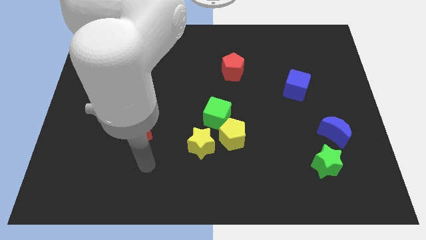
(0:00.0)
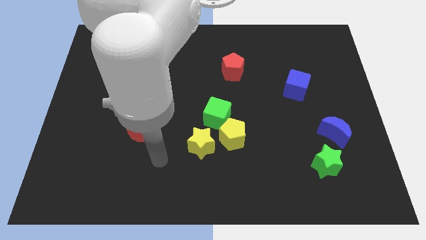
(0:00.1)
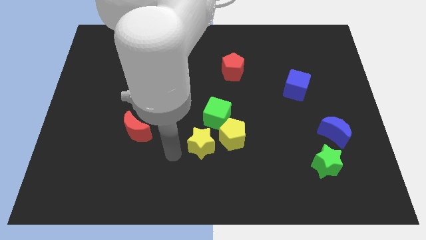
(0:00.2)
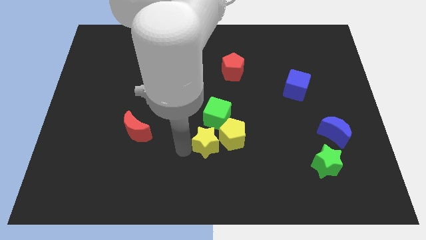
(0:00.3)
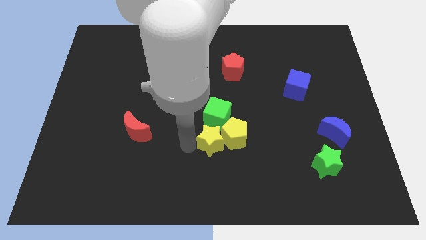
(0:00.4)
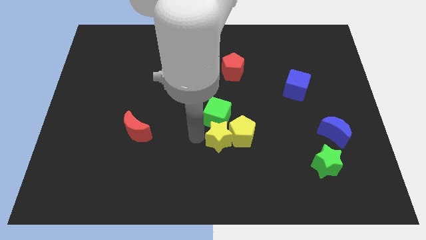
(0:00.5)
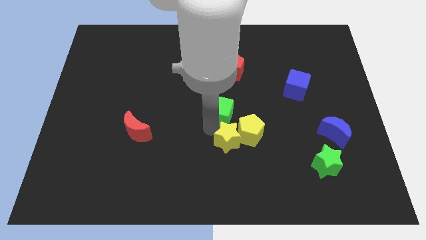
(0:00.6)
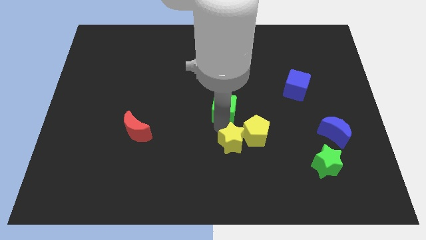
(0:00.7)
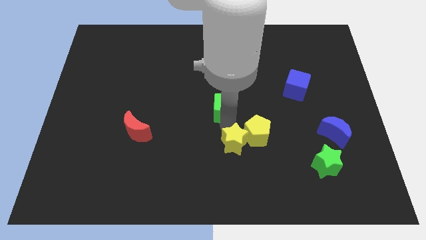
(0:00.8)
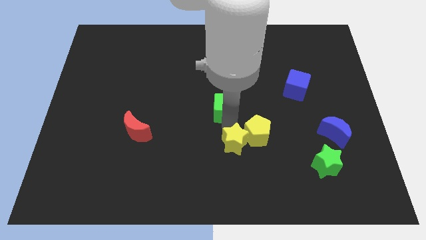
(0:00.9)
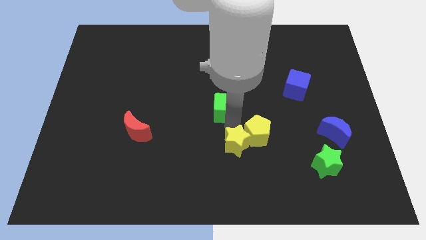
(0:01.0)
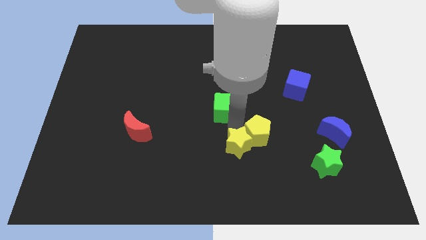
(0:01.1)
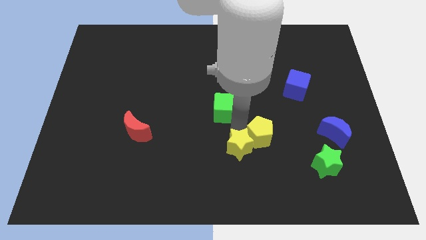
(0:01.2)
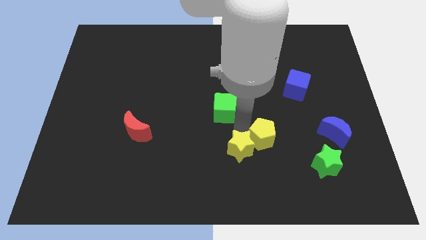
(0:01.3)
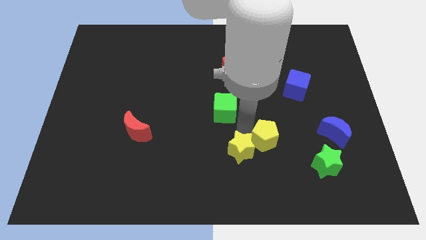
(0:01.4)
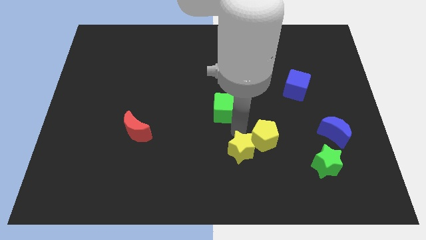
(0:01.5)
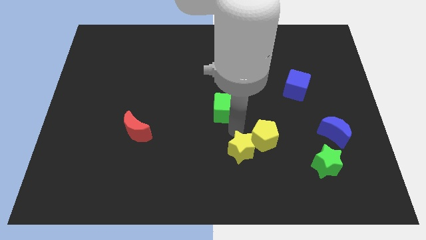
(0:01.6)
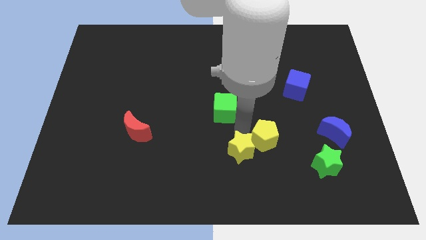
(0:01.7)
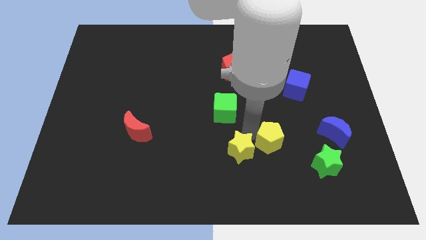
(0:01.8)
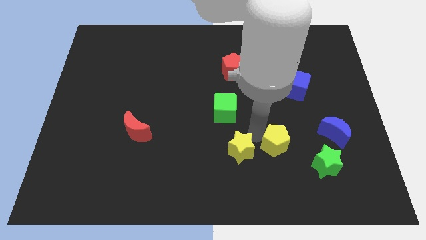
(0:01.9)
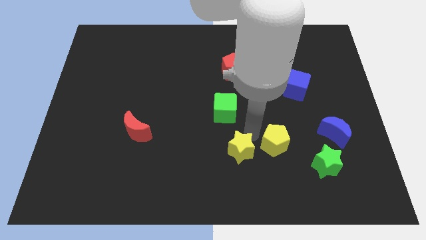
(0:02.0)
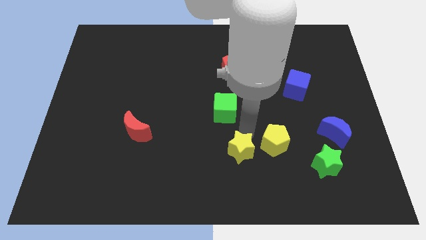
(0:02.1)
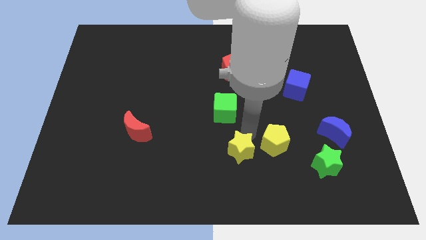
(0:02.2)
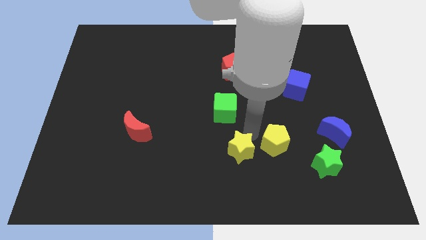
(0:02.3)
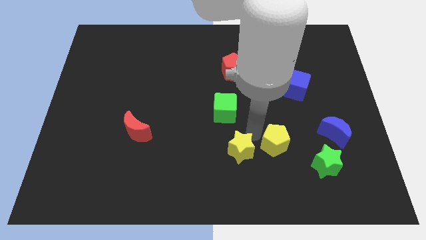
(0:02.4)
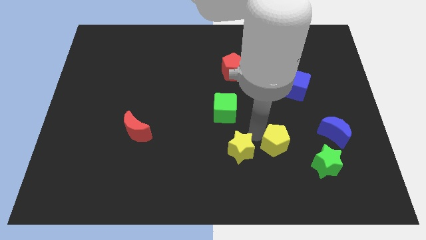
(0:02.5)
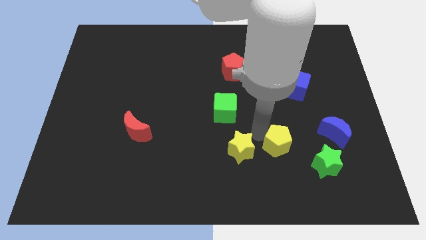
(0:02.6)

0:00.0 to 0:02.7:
pull the yellow pentagon apart from the green cube and yellow star

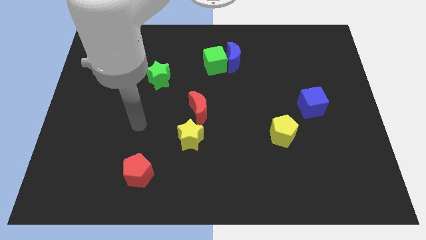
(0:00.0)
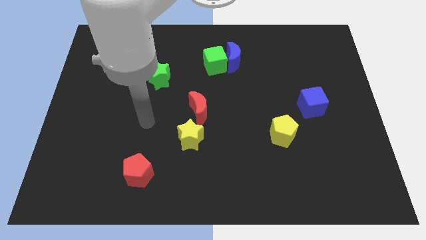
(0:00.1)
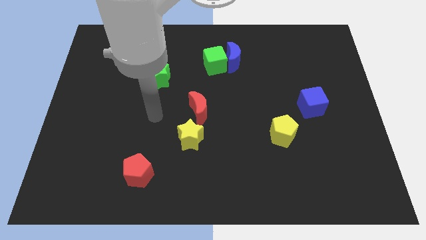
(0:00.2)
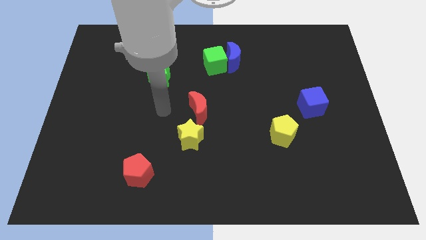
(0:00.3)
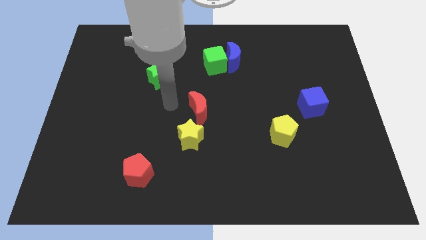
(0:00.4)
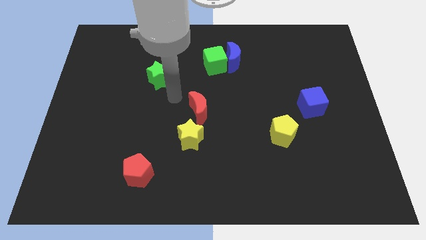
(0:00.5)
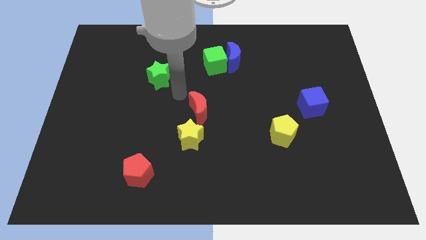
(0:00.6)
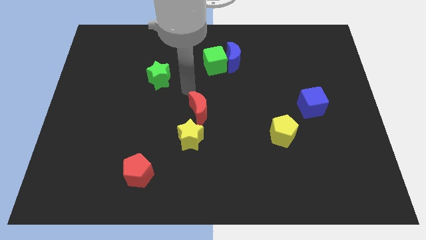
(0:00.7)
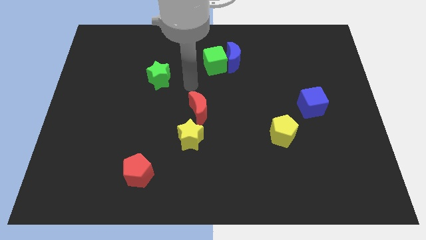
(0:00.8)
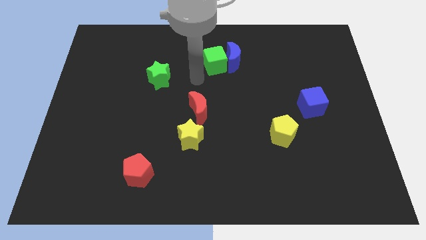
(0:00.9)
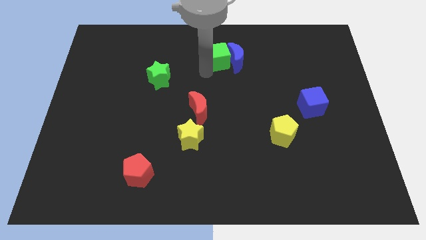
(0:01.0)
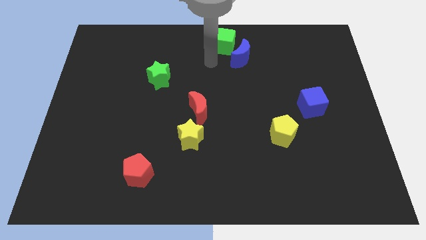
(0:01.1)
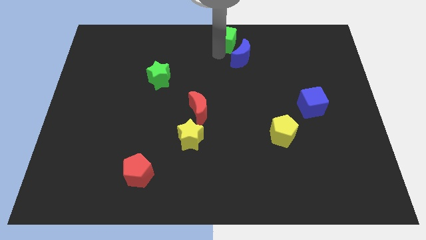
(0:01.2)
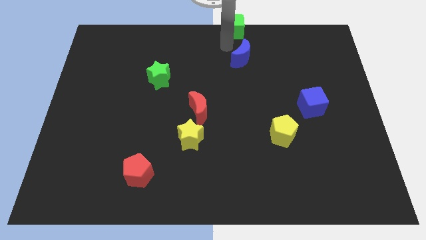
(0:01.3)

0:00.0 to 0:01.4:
pull the blue moon apart from the green cube

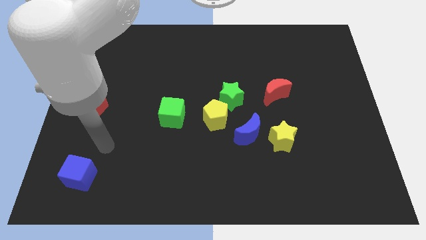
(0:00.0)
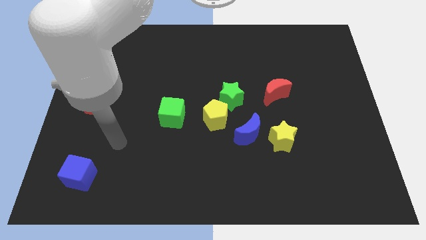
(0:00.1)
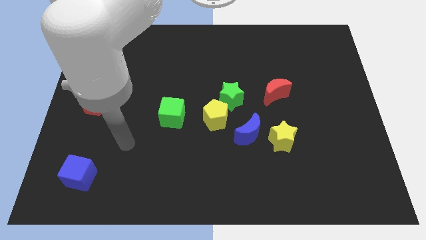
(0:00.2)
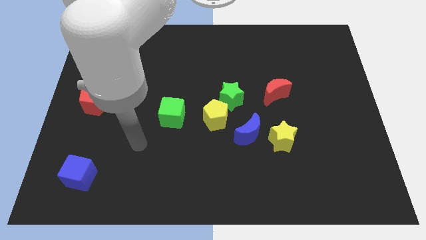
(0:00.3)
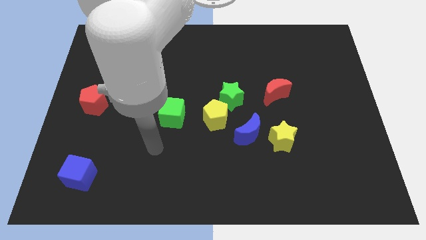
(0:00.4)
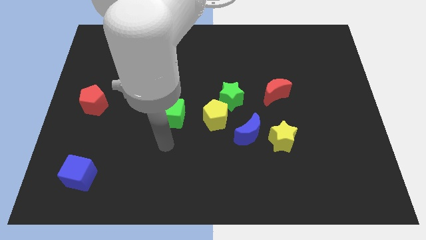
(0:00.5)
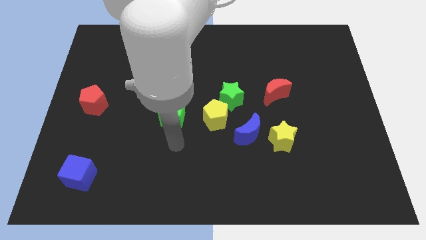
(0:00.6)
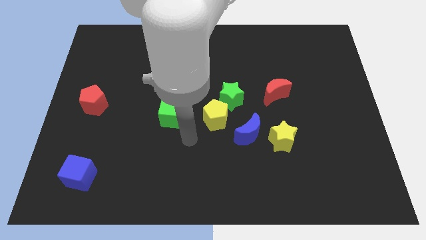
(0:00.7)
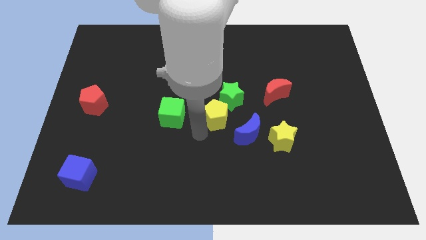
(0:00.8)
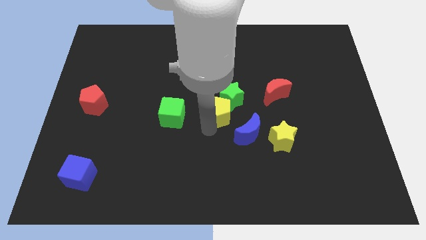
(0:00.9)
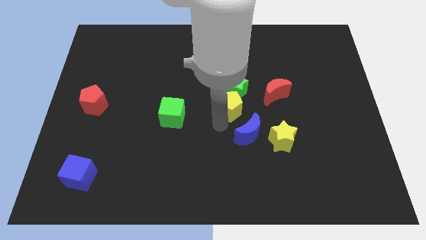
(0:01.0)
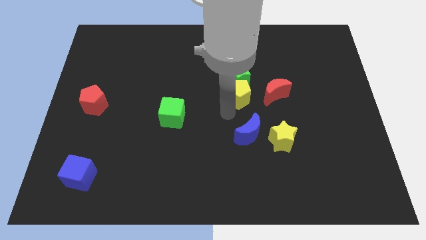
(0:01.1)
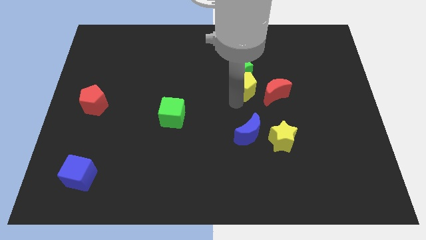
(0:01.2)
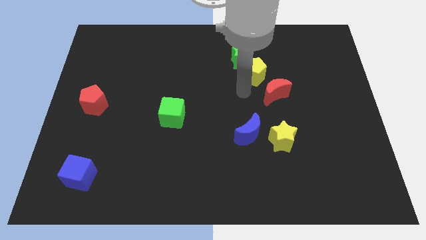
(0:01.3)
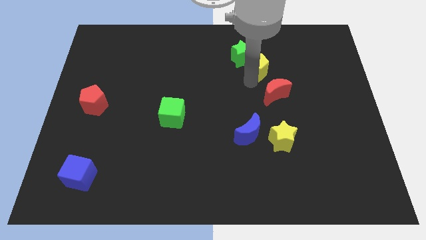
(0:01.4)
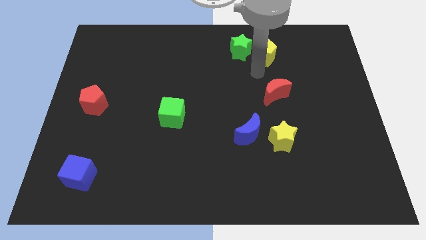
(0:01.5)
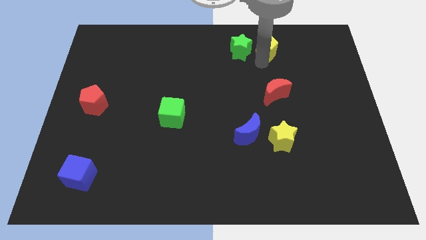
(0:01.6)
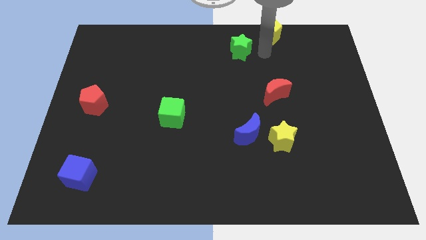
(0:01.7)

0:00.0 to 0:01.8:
pull the green star apart from the yellow pentagon

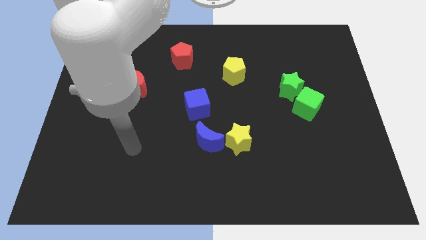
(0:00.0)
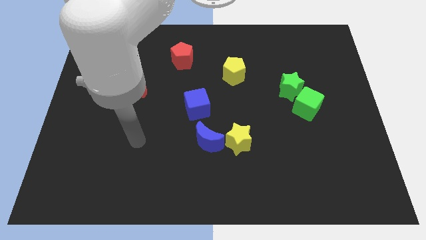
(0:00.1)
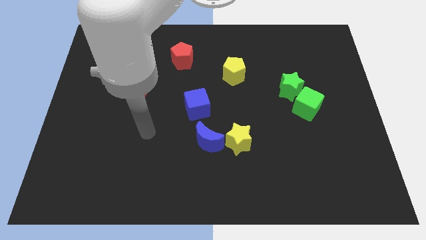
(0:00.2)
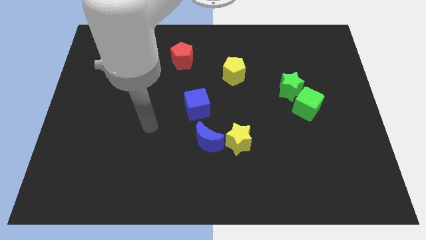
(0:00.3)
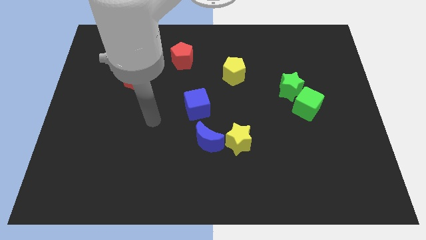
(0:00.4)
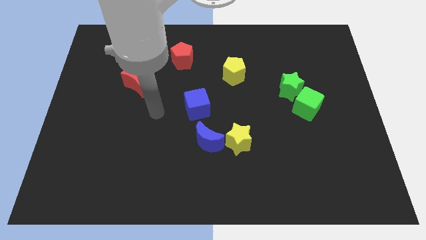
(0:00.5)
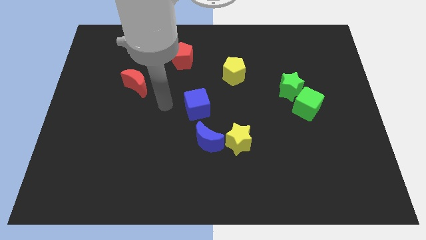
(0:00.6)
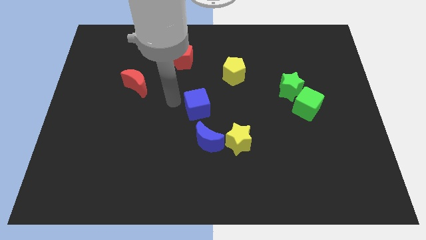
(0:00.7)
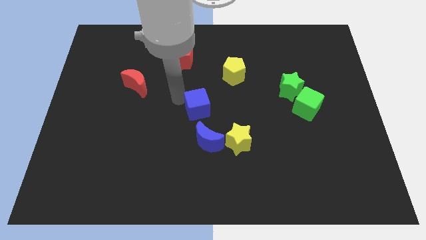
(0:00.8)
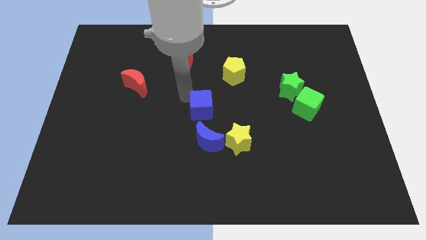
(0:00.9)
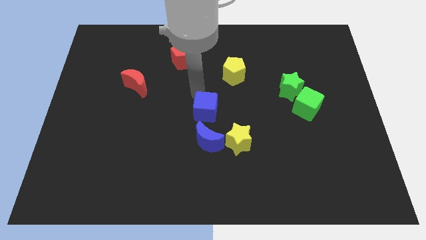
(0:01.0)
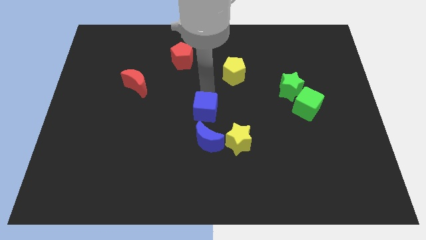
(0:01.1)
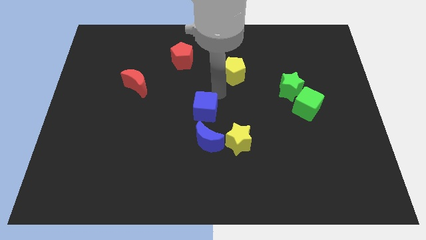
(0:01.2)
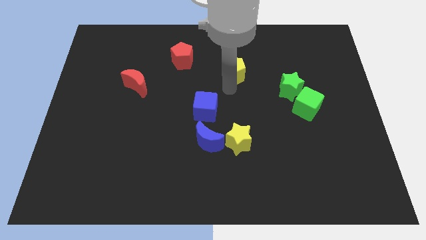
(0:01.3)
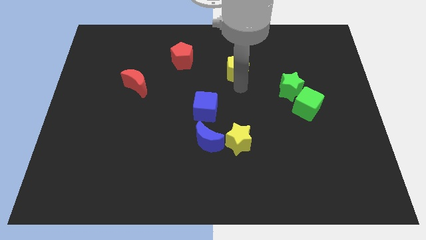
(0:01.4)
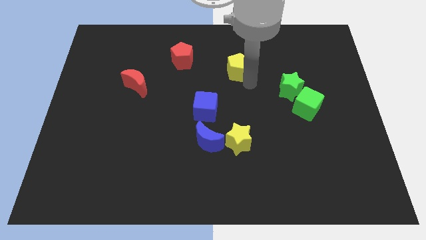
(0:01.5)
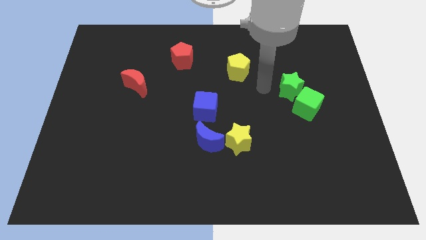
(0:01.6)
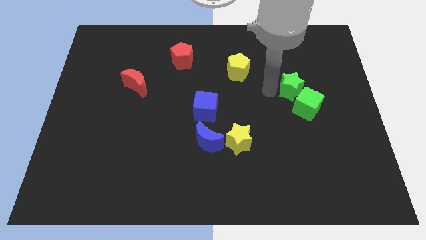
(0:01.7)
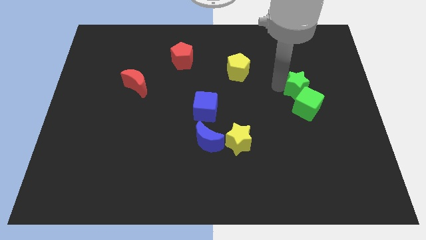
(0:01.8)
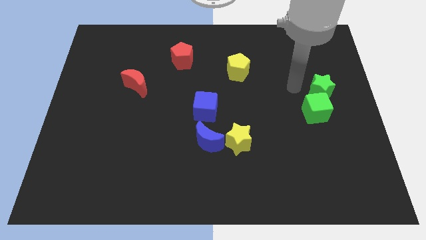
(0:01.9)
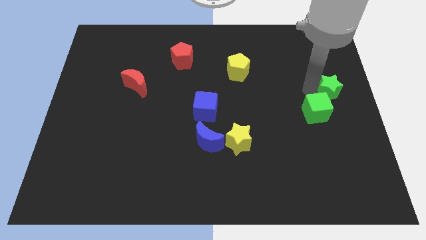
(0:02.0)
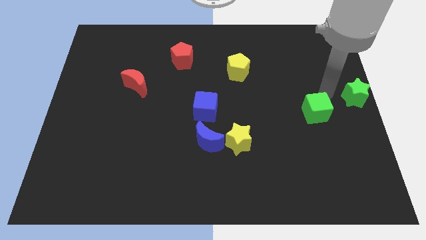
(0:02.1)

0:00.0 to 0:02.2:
separate the green cube from the green star

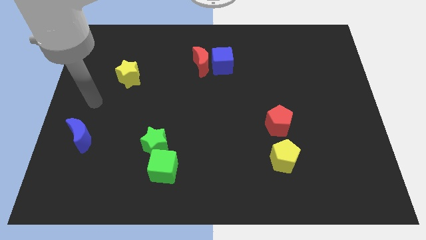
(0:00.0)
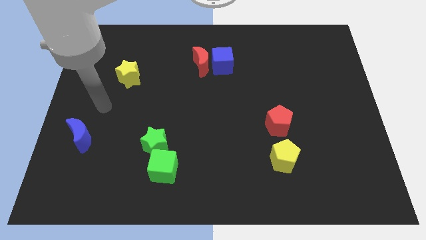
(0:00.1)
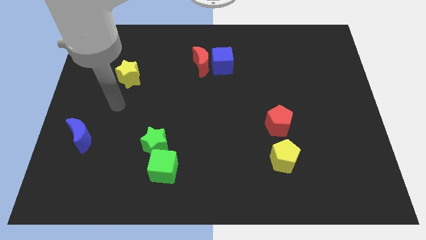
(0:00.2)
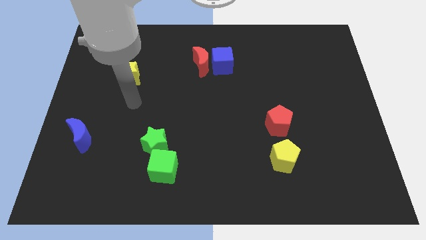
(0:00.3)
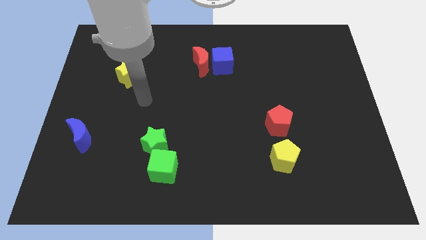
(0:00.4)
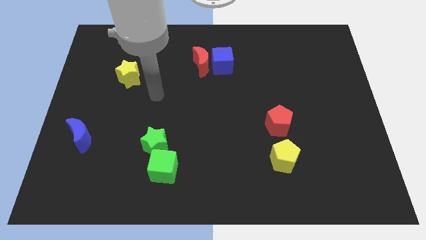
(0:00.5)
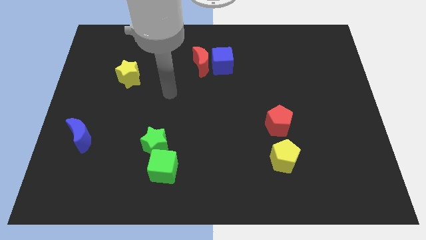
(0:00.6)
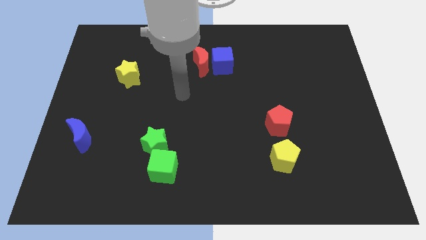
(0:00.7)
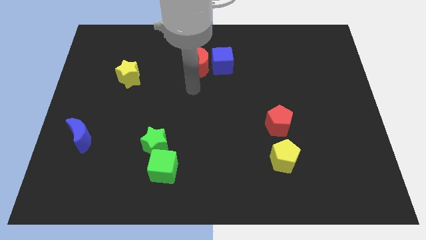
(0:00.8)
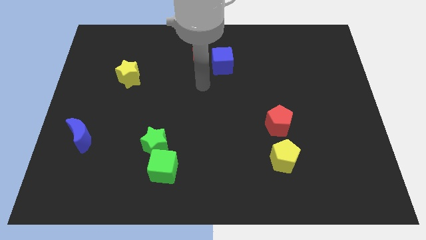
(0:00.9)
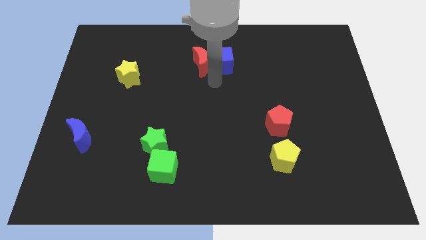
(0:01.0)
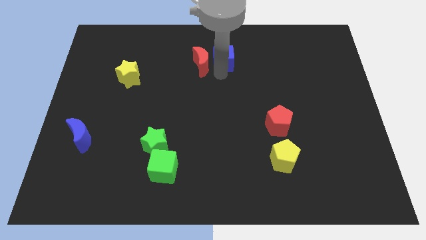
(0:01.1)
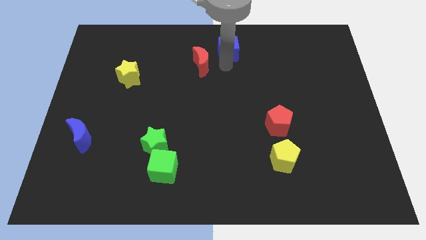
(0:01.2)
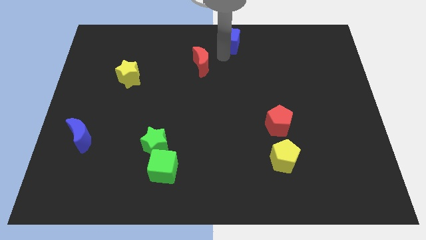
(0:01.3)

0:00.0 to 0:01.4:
pull the red moon apart from the blue cube
